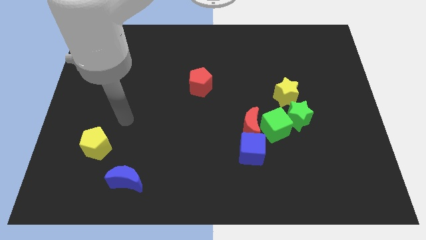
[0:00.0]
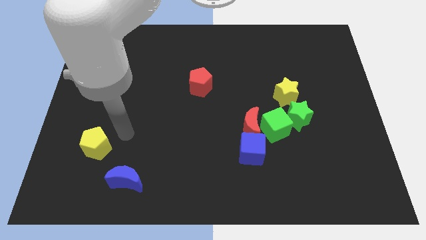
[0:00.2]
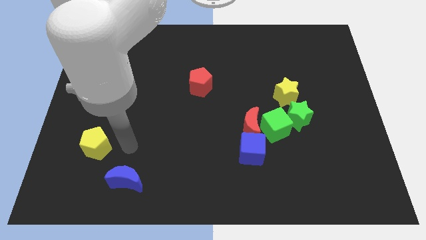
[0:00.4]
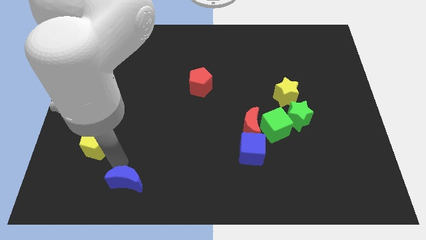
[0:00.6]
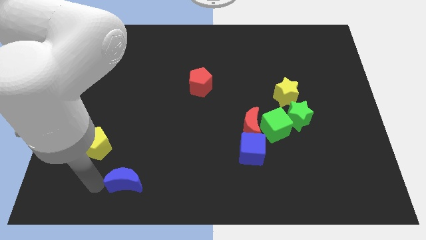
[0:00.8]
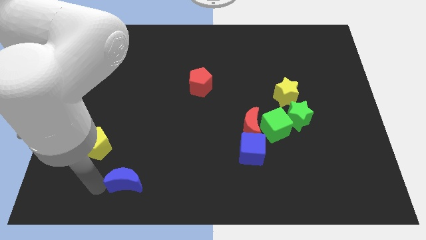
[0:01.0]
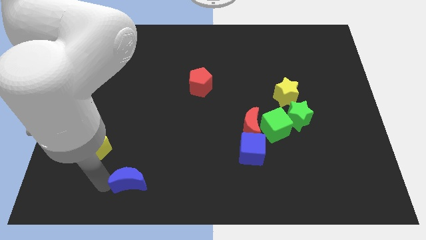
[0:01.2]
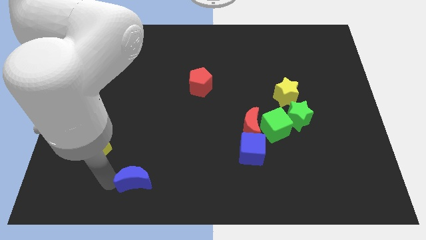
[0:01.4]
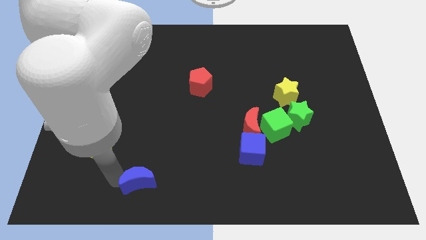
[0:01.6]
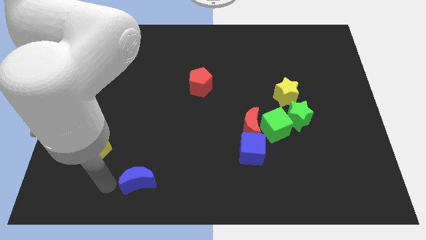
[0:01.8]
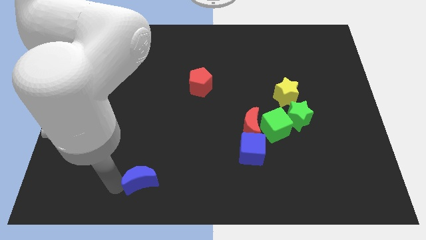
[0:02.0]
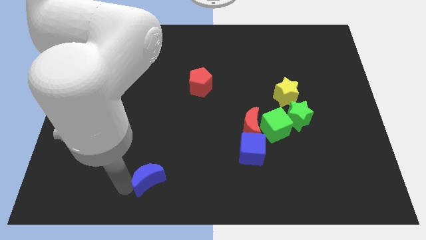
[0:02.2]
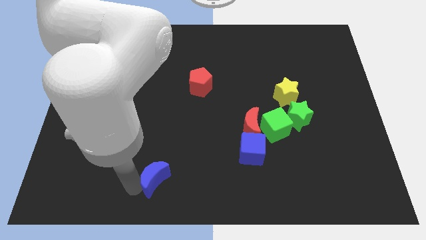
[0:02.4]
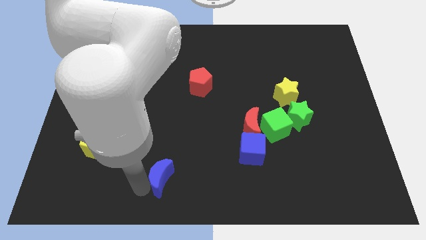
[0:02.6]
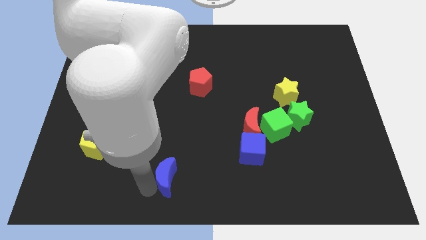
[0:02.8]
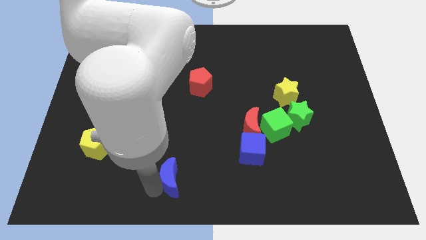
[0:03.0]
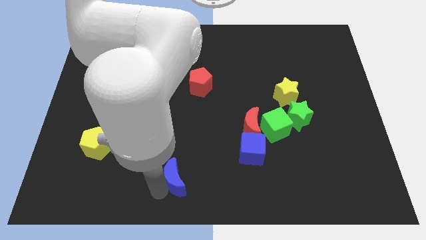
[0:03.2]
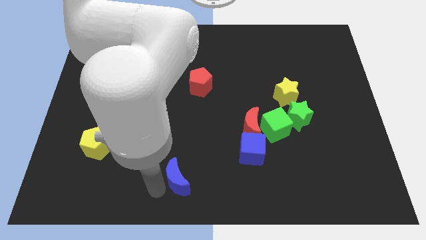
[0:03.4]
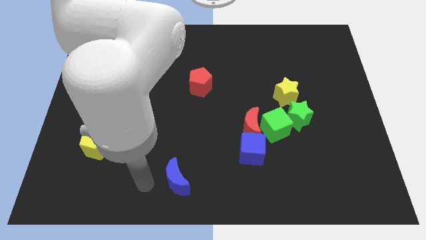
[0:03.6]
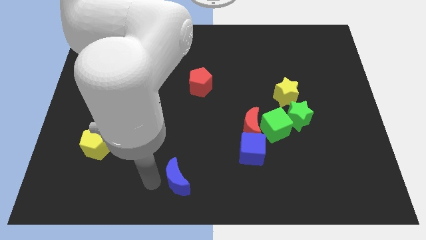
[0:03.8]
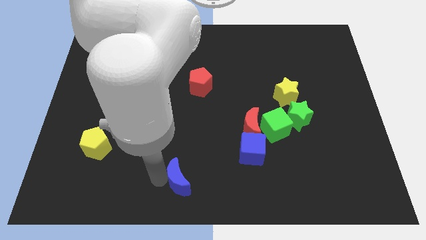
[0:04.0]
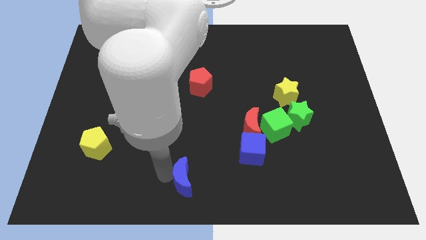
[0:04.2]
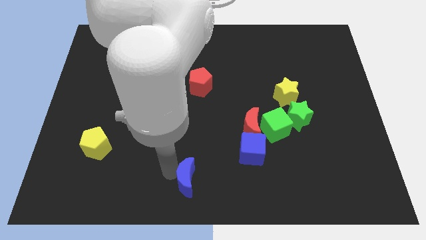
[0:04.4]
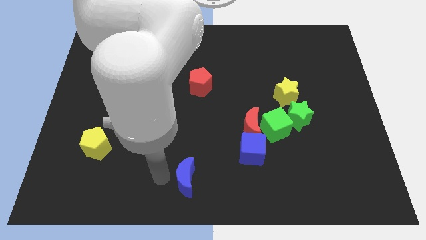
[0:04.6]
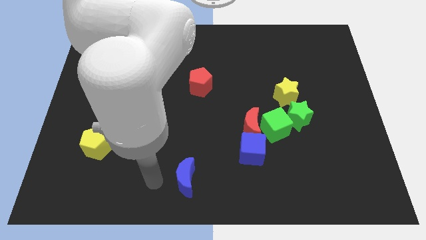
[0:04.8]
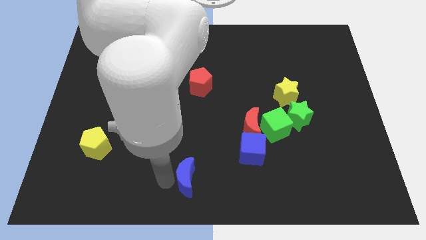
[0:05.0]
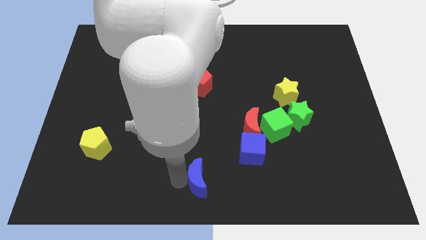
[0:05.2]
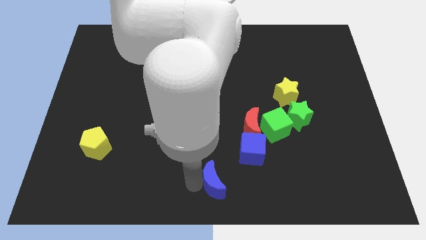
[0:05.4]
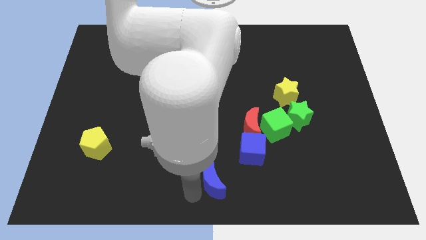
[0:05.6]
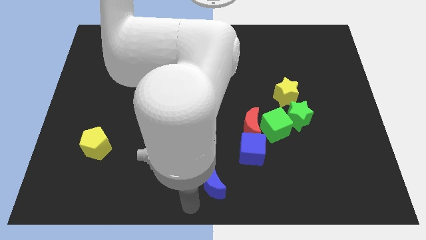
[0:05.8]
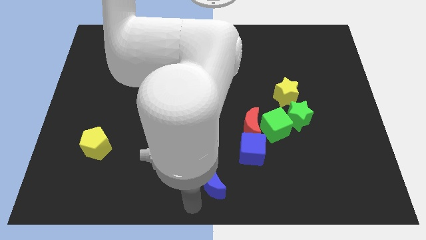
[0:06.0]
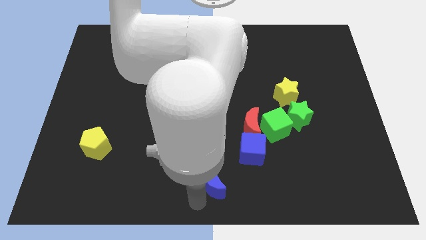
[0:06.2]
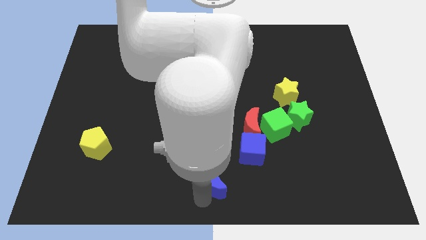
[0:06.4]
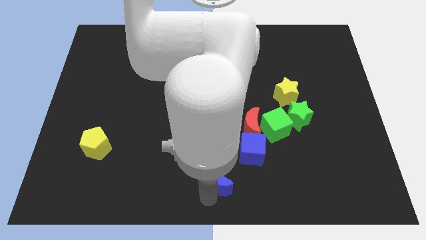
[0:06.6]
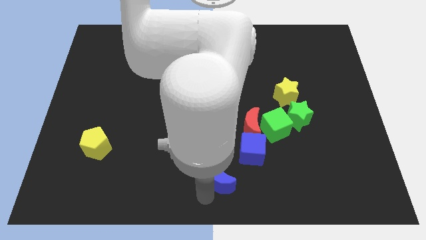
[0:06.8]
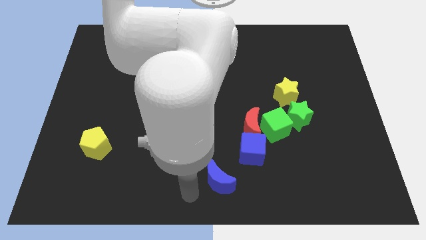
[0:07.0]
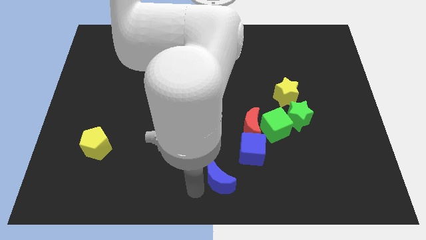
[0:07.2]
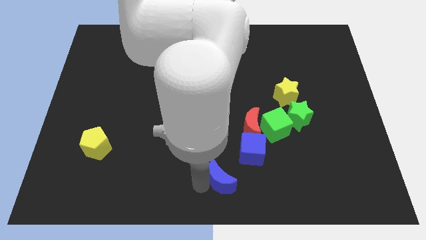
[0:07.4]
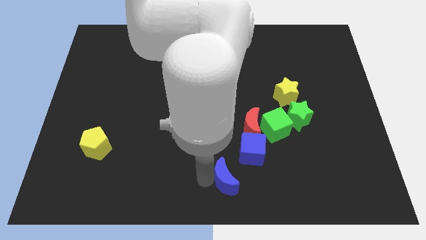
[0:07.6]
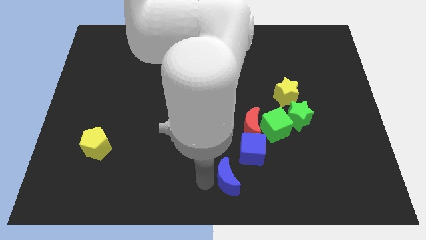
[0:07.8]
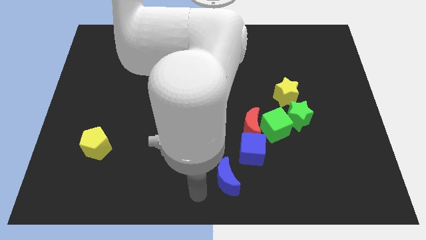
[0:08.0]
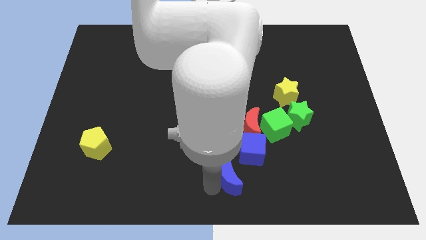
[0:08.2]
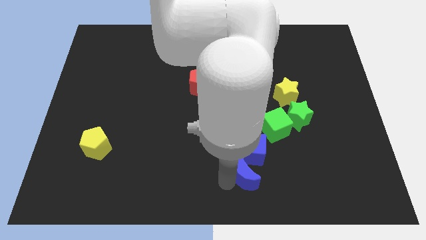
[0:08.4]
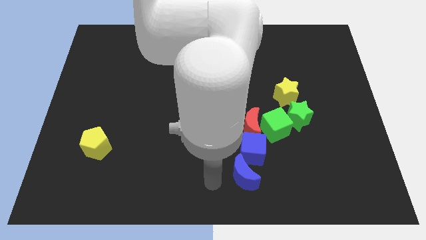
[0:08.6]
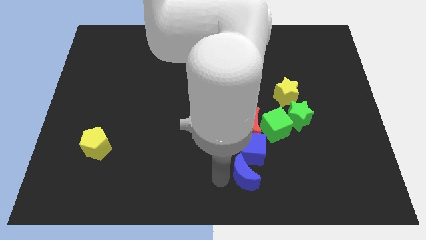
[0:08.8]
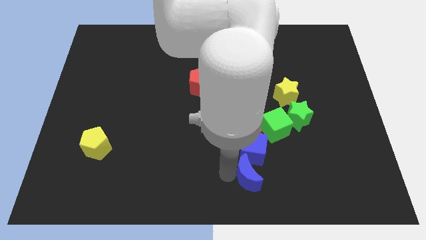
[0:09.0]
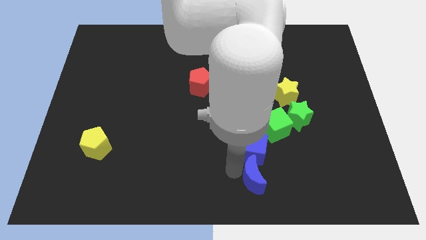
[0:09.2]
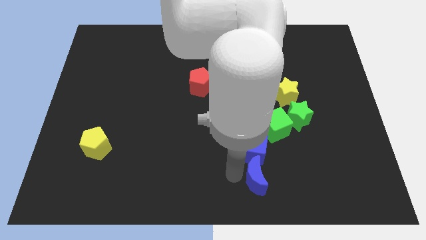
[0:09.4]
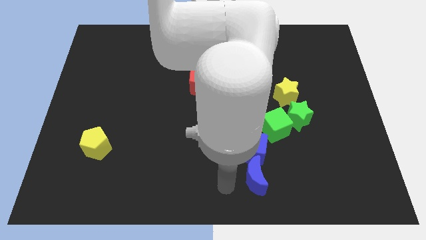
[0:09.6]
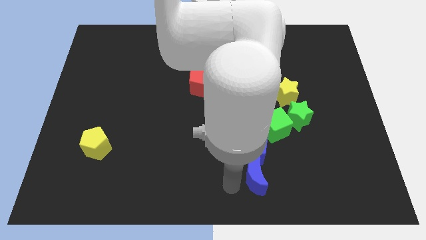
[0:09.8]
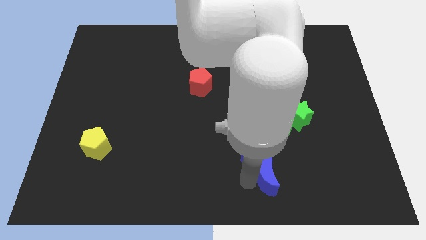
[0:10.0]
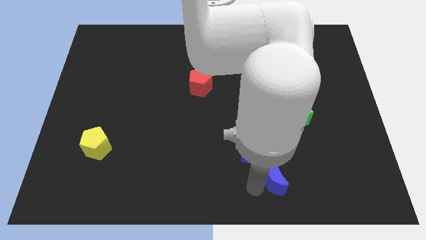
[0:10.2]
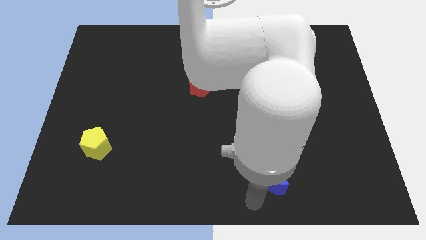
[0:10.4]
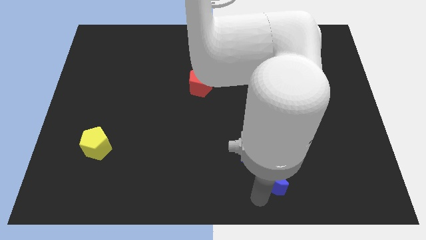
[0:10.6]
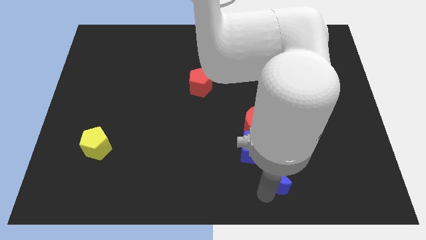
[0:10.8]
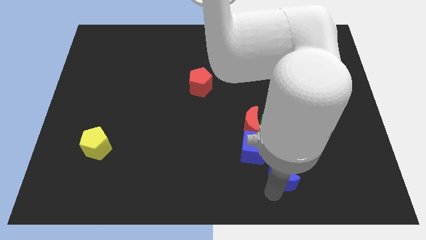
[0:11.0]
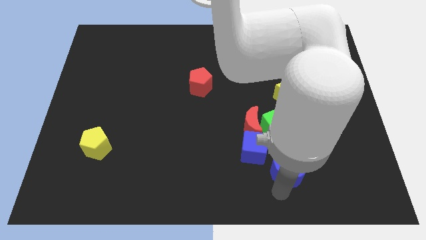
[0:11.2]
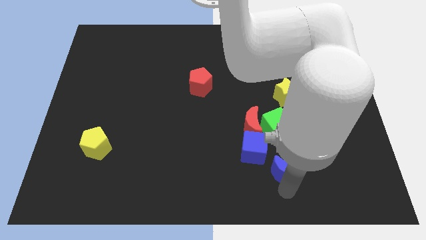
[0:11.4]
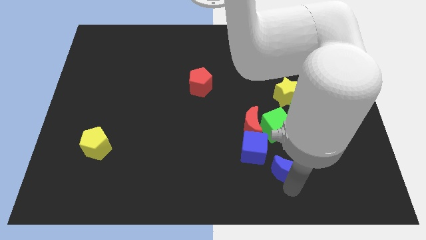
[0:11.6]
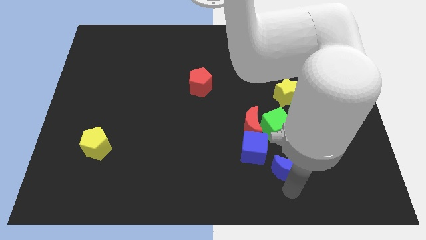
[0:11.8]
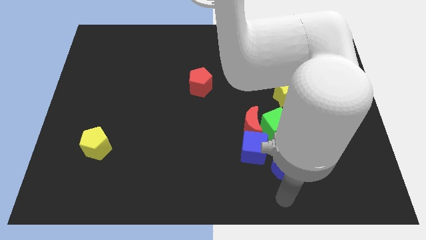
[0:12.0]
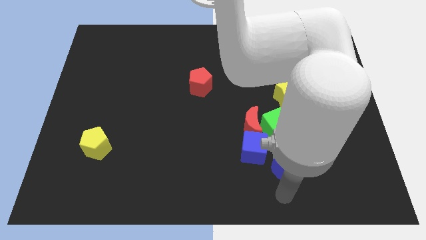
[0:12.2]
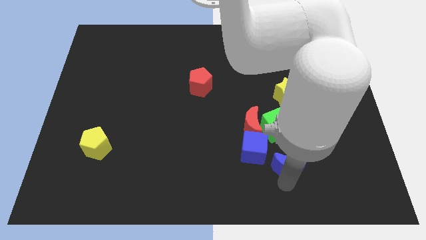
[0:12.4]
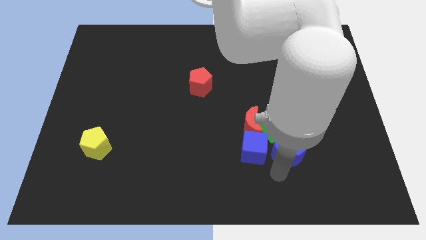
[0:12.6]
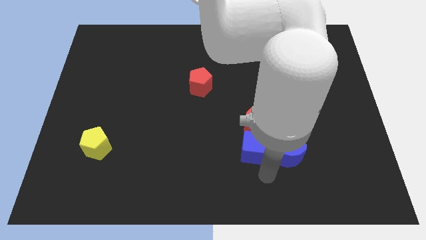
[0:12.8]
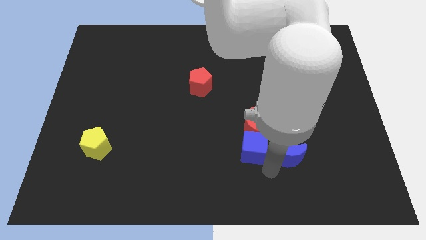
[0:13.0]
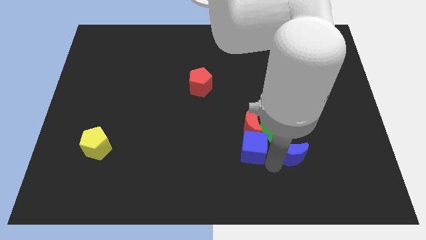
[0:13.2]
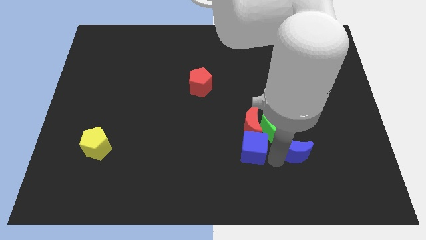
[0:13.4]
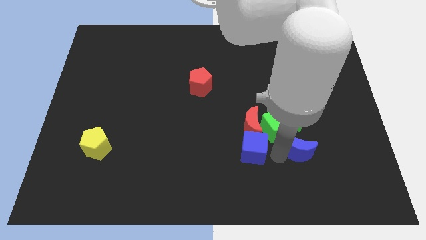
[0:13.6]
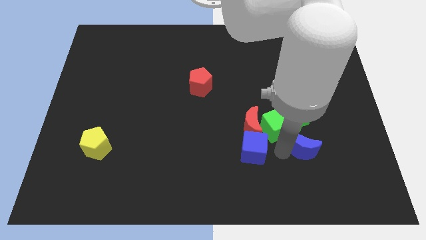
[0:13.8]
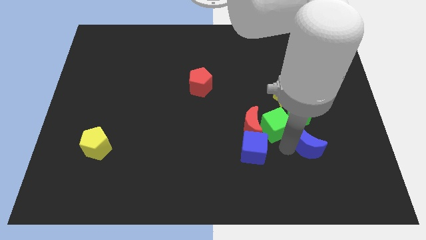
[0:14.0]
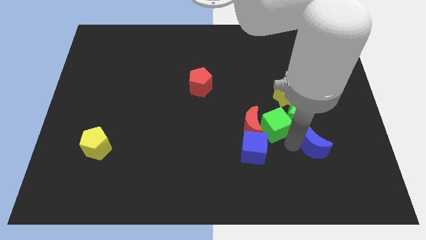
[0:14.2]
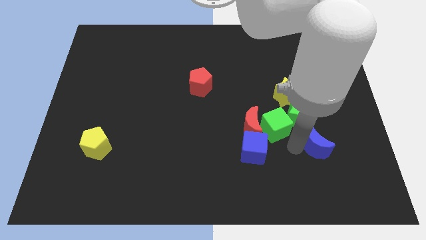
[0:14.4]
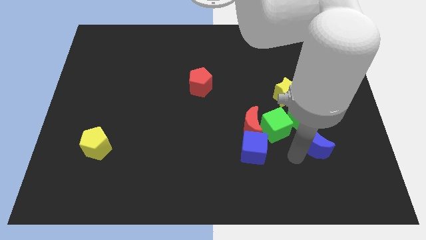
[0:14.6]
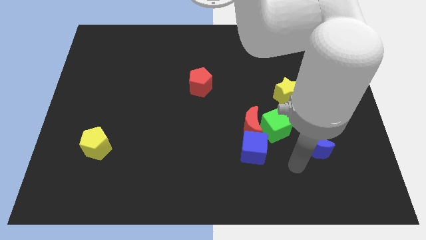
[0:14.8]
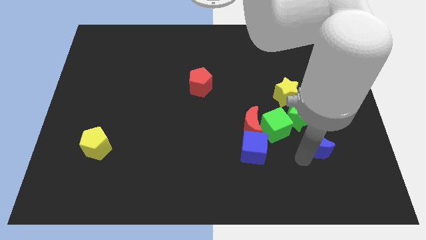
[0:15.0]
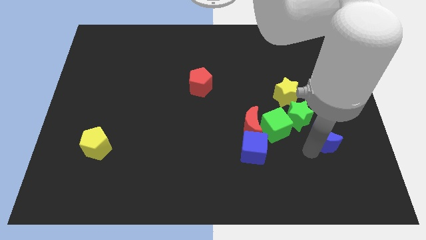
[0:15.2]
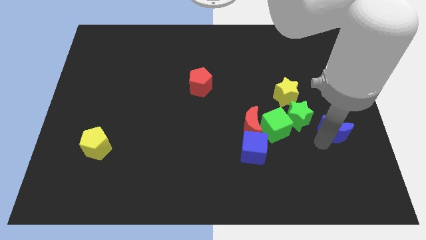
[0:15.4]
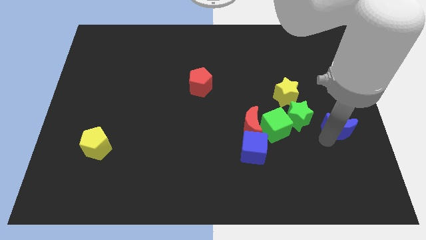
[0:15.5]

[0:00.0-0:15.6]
slide the blue moon to the right side
